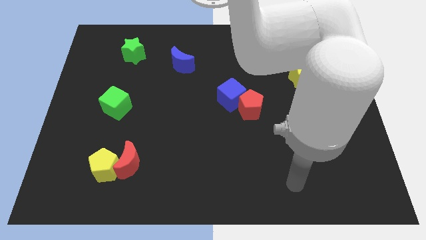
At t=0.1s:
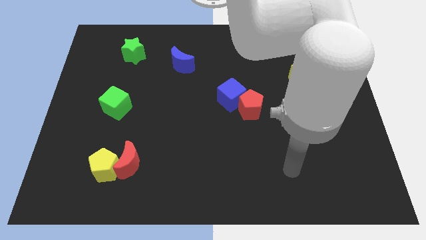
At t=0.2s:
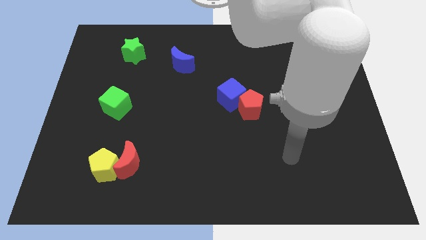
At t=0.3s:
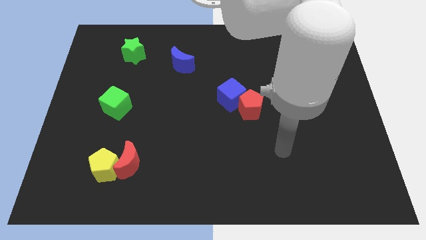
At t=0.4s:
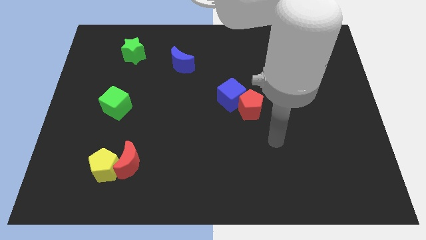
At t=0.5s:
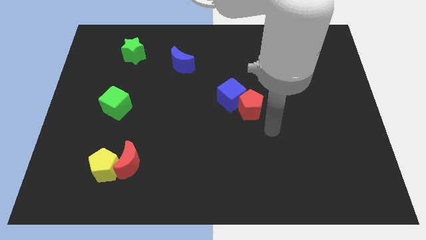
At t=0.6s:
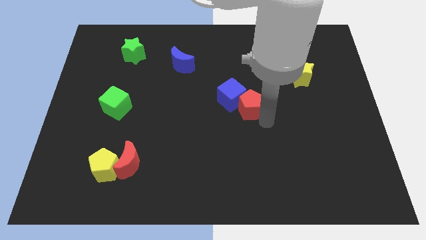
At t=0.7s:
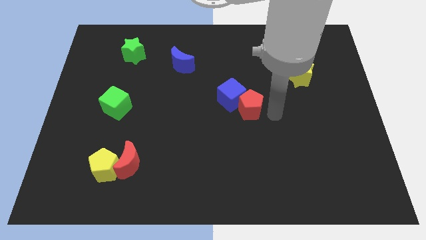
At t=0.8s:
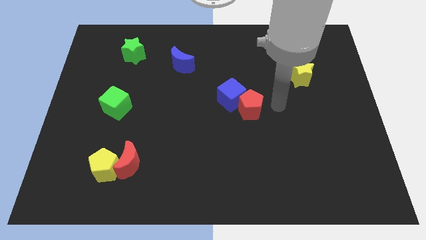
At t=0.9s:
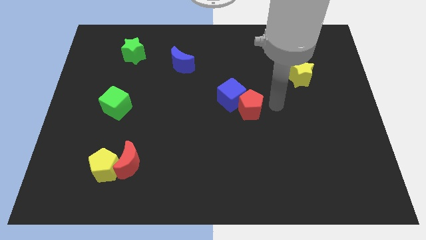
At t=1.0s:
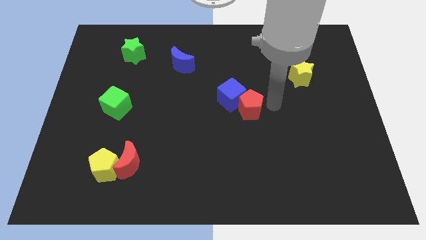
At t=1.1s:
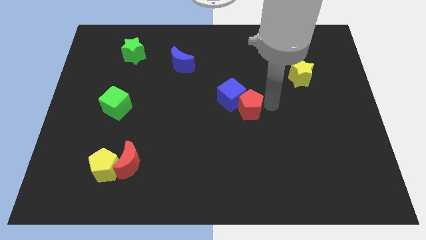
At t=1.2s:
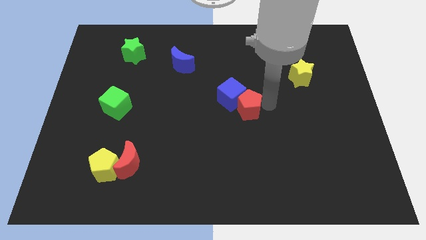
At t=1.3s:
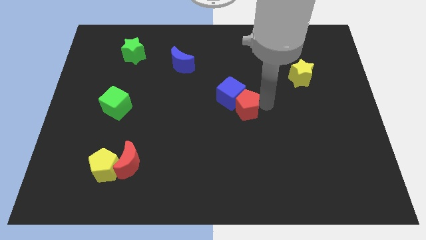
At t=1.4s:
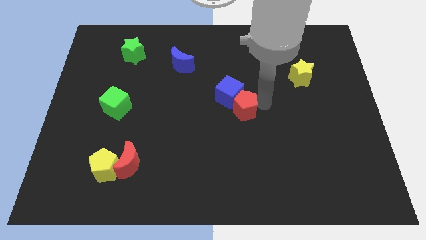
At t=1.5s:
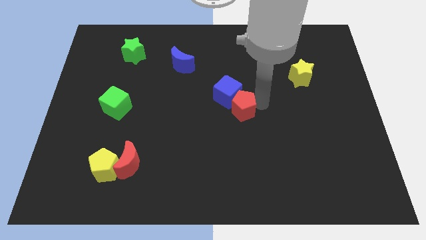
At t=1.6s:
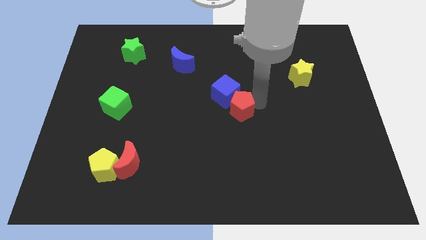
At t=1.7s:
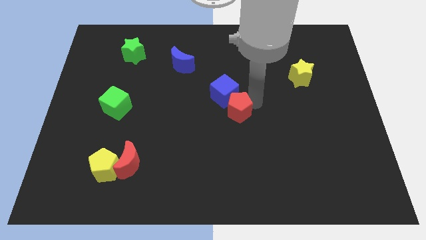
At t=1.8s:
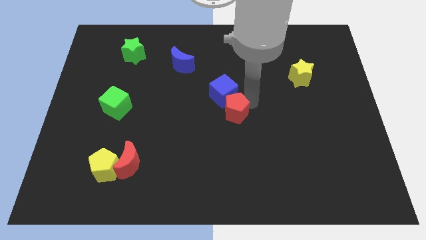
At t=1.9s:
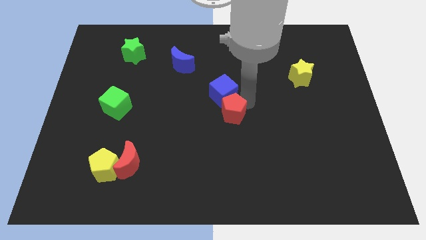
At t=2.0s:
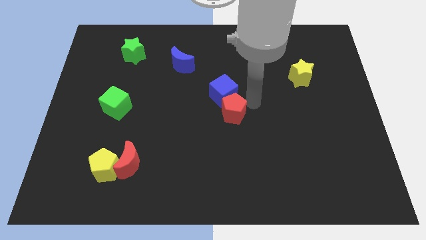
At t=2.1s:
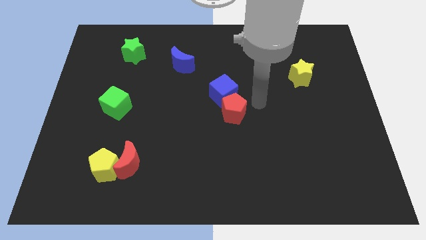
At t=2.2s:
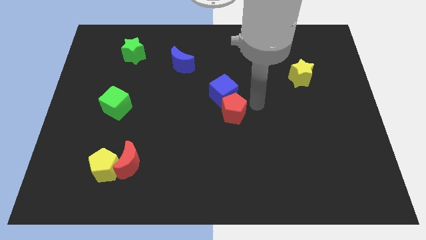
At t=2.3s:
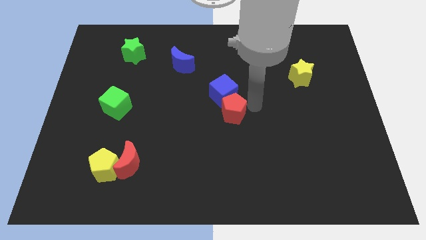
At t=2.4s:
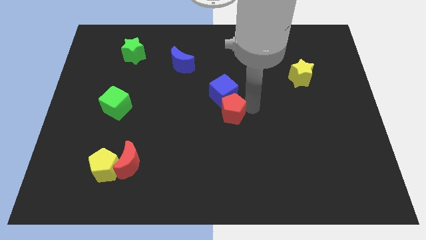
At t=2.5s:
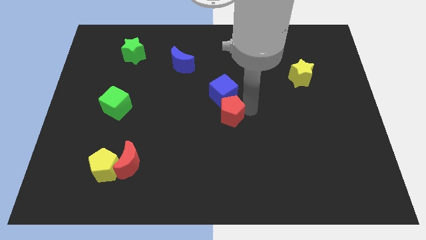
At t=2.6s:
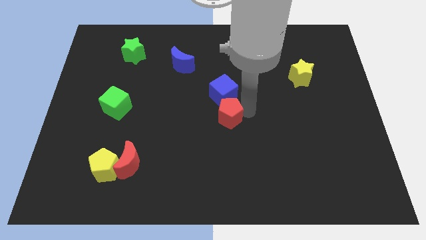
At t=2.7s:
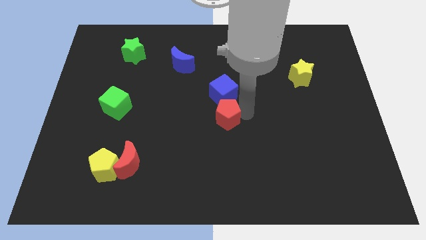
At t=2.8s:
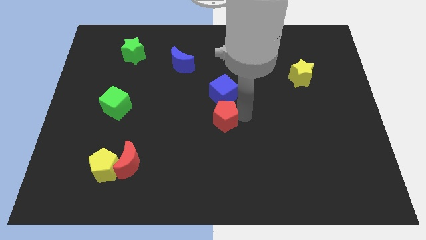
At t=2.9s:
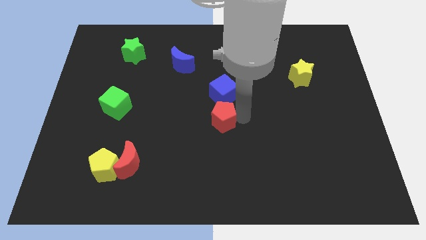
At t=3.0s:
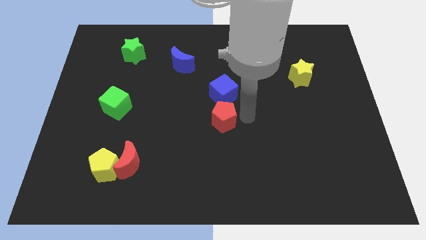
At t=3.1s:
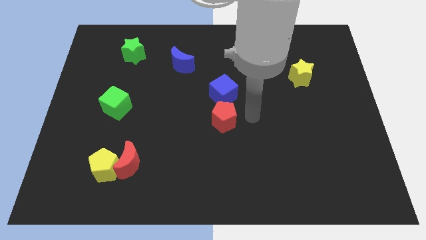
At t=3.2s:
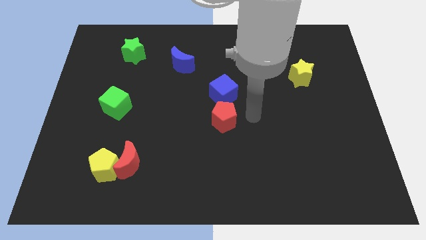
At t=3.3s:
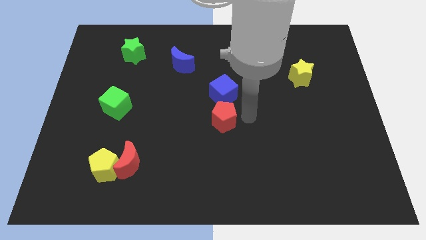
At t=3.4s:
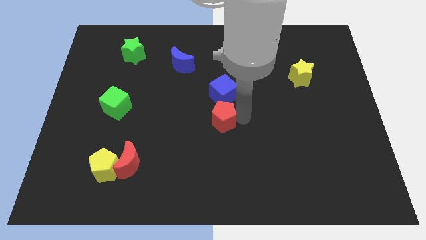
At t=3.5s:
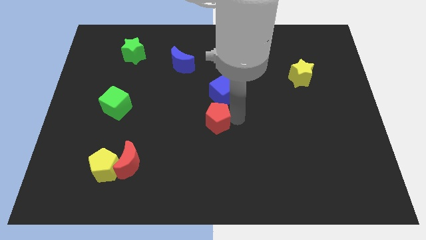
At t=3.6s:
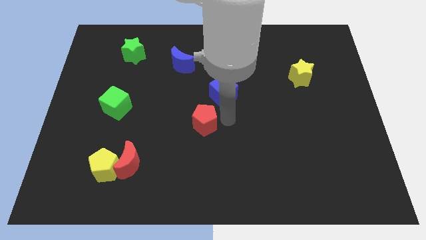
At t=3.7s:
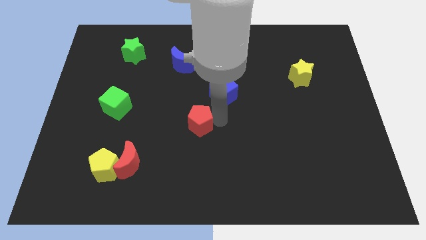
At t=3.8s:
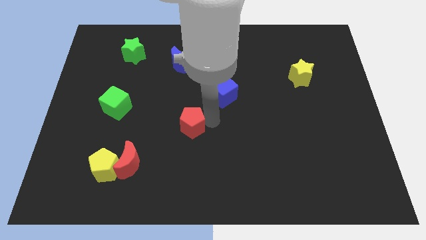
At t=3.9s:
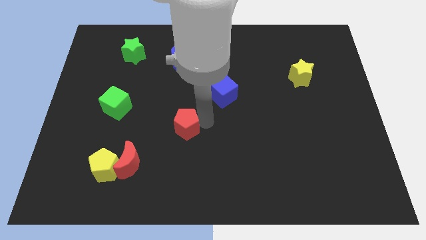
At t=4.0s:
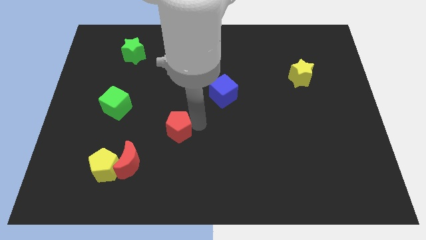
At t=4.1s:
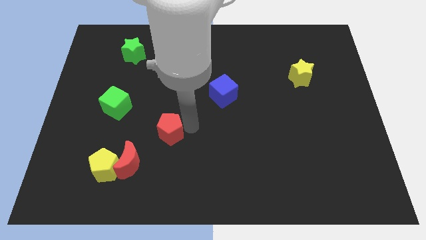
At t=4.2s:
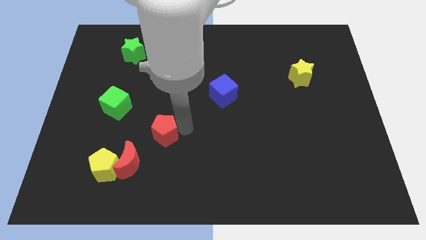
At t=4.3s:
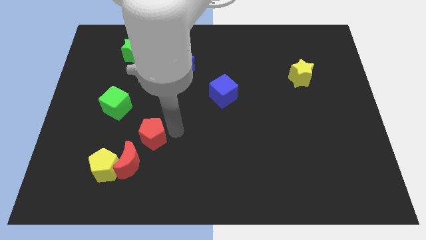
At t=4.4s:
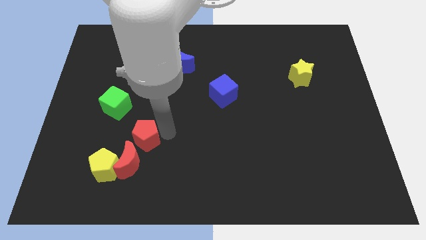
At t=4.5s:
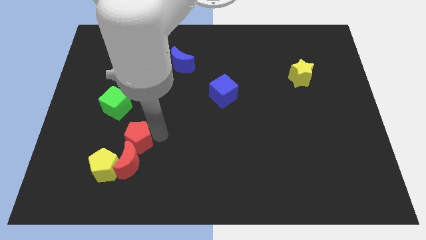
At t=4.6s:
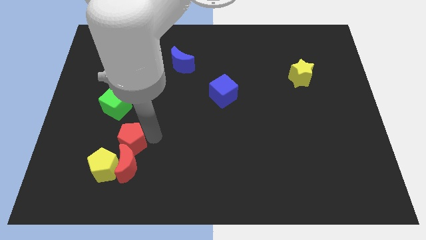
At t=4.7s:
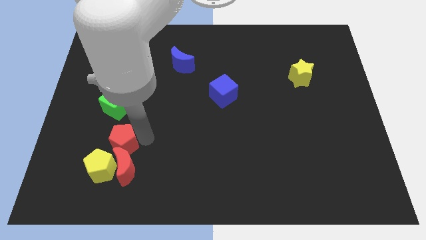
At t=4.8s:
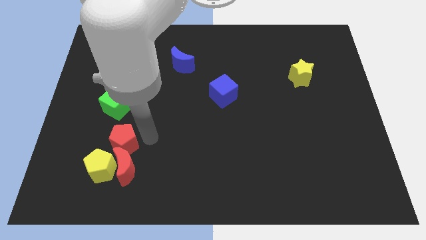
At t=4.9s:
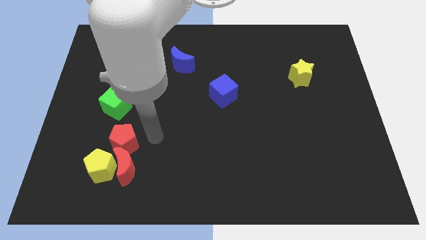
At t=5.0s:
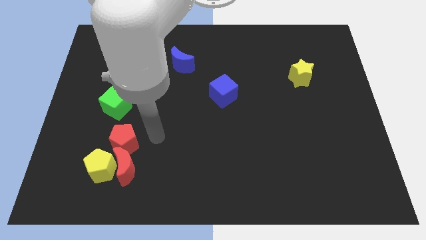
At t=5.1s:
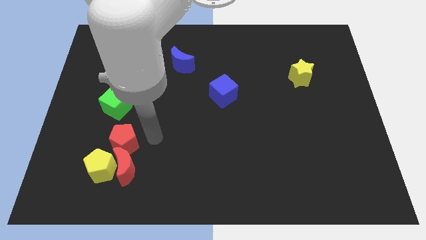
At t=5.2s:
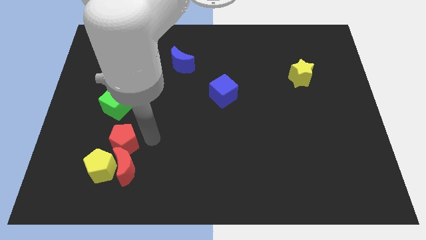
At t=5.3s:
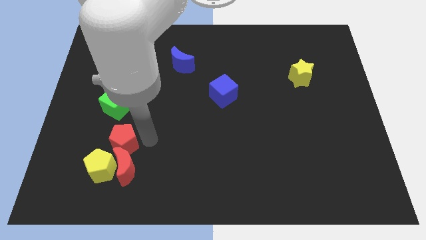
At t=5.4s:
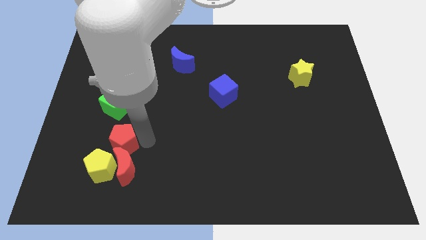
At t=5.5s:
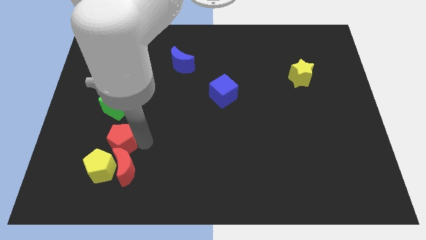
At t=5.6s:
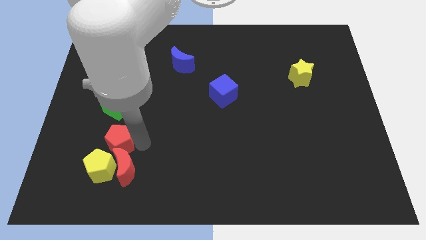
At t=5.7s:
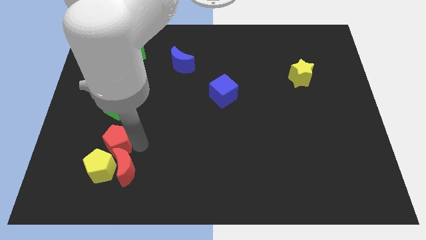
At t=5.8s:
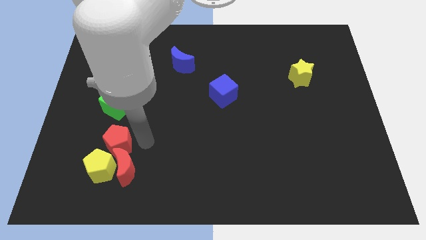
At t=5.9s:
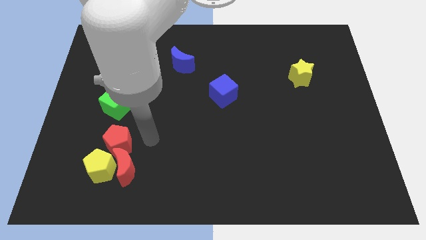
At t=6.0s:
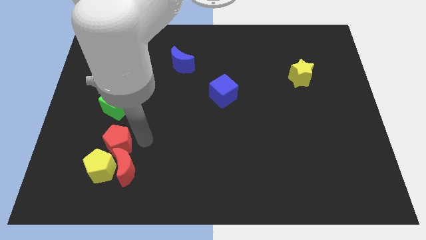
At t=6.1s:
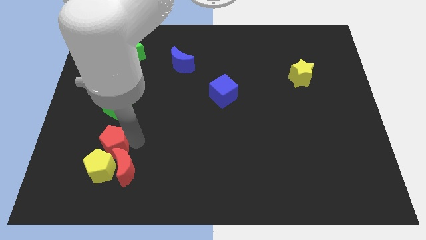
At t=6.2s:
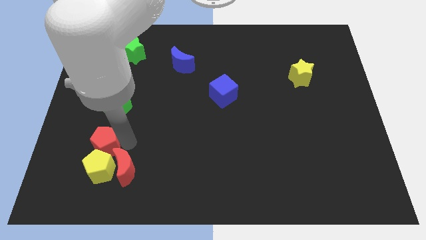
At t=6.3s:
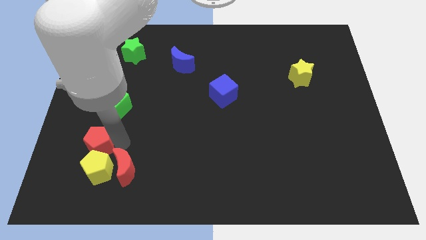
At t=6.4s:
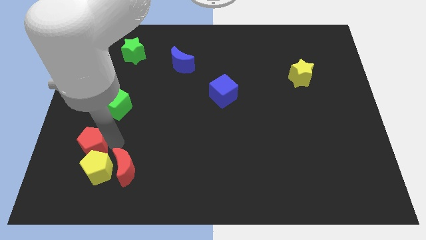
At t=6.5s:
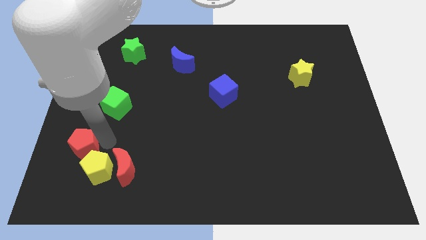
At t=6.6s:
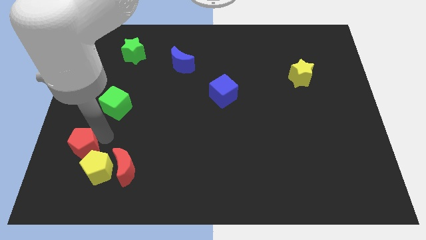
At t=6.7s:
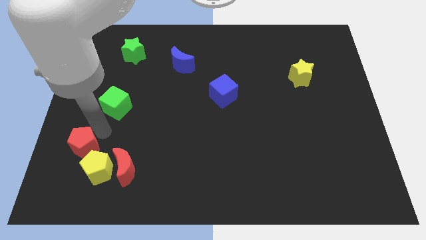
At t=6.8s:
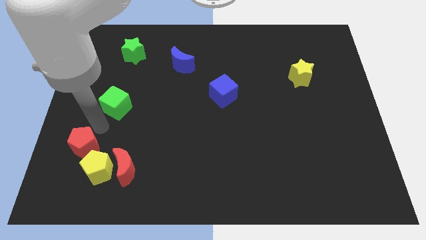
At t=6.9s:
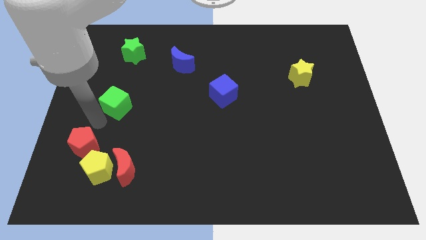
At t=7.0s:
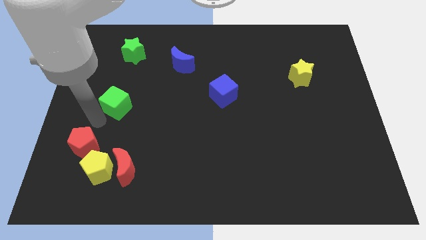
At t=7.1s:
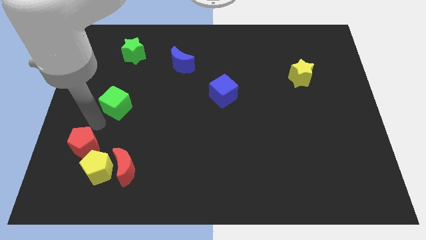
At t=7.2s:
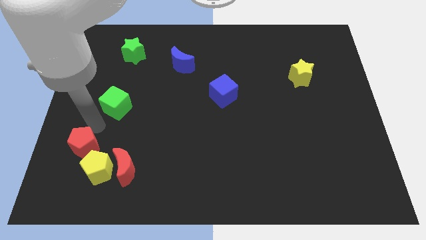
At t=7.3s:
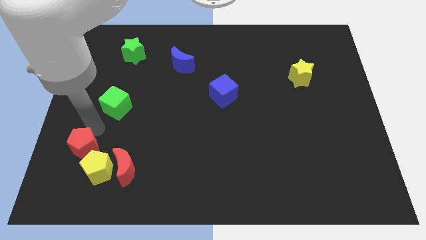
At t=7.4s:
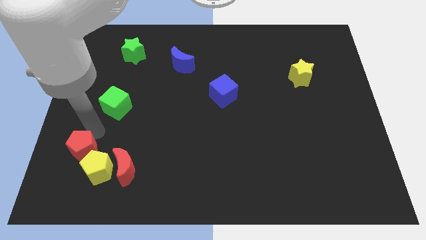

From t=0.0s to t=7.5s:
push the red pentagon left of the red moon
